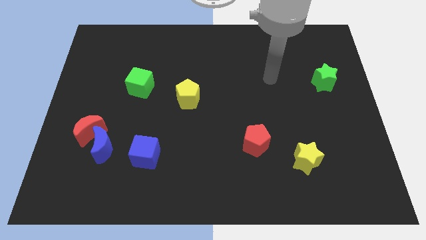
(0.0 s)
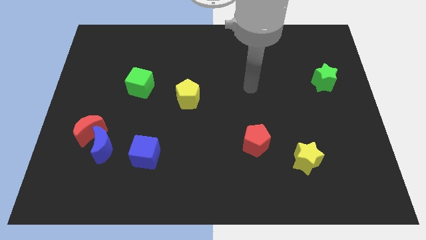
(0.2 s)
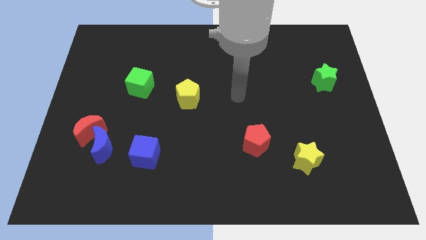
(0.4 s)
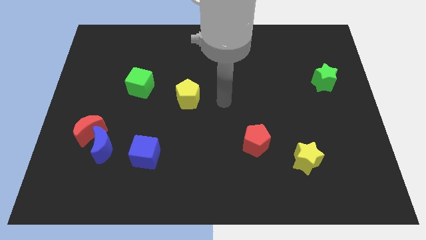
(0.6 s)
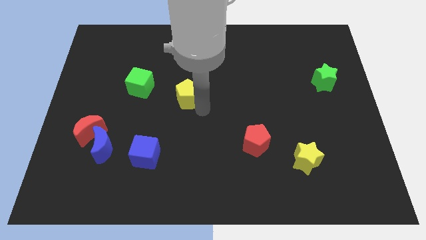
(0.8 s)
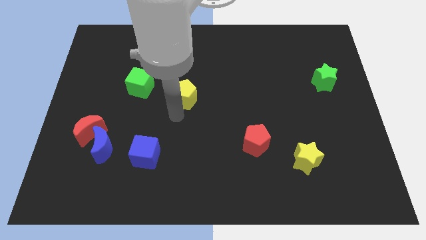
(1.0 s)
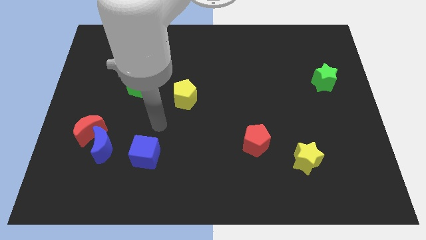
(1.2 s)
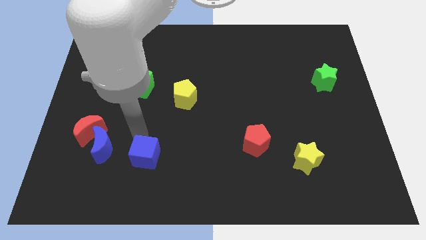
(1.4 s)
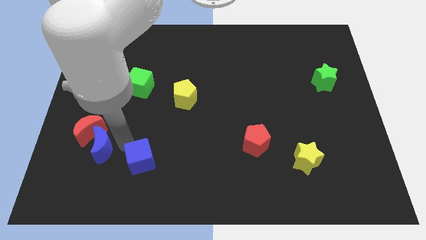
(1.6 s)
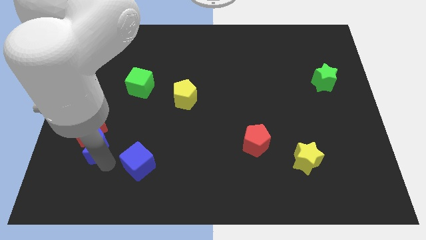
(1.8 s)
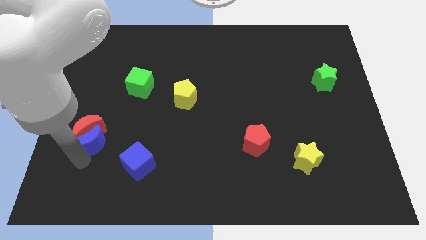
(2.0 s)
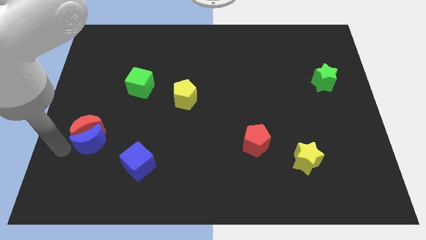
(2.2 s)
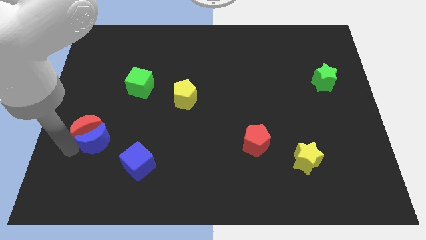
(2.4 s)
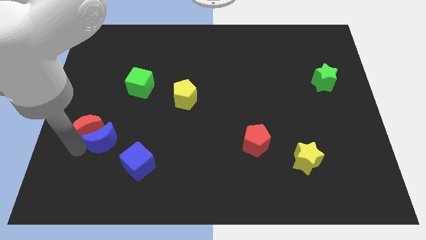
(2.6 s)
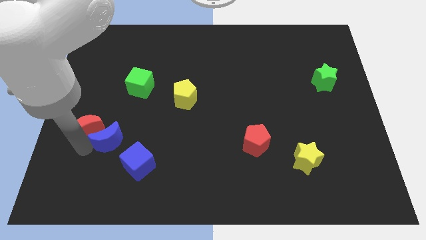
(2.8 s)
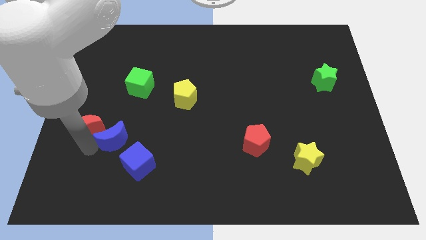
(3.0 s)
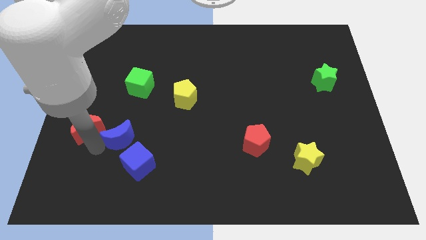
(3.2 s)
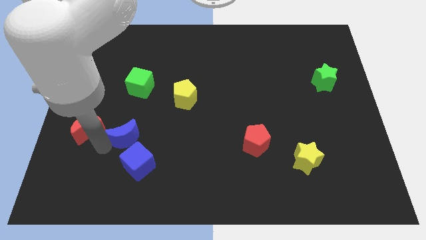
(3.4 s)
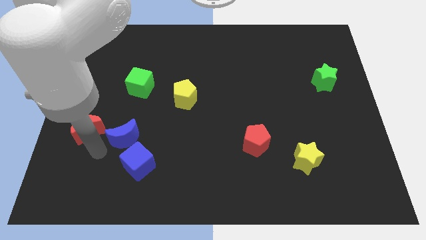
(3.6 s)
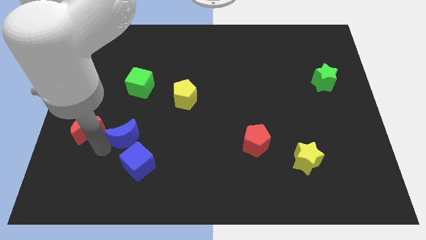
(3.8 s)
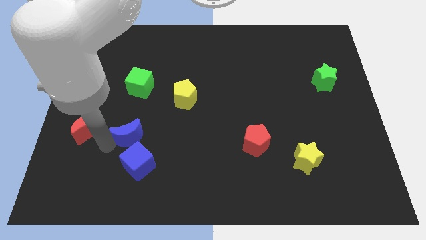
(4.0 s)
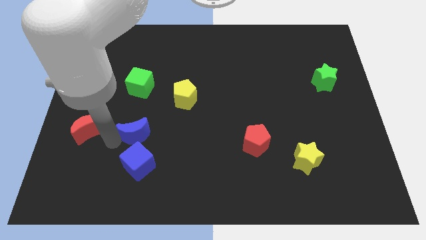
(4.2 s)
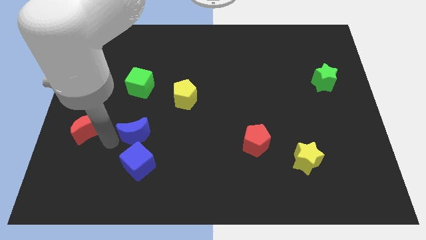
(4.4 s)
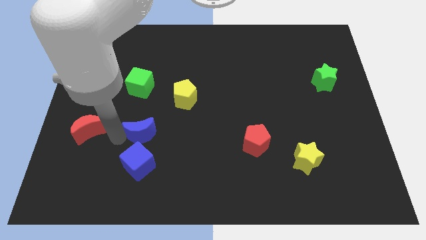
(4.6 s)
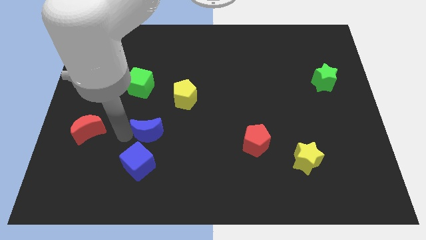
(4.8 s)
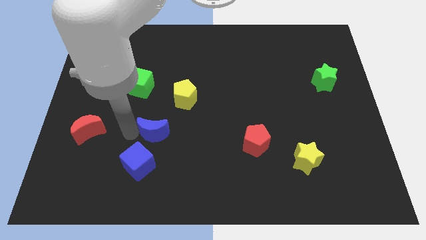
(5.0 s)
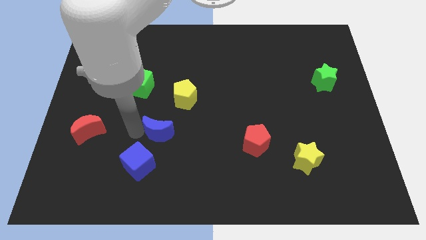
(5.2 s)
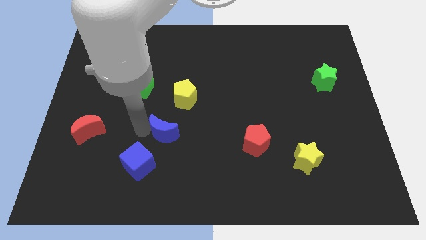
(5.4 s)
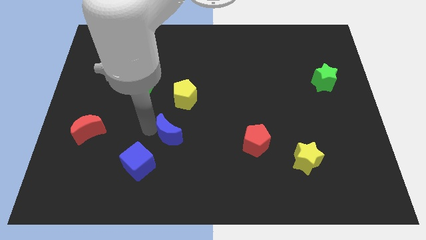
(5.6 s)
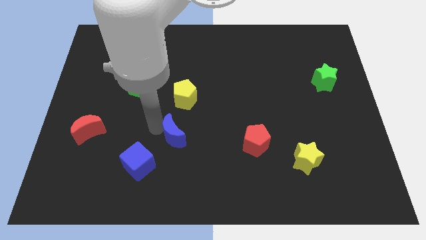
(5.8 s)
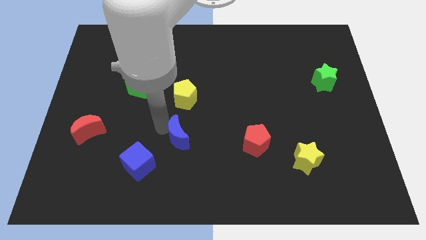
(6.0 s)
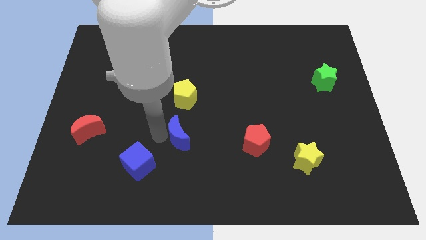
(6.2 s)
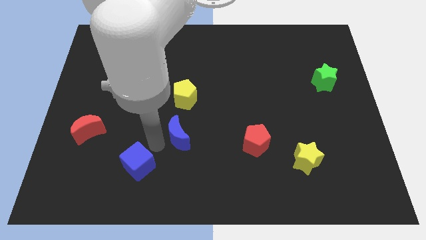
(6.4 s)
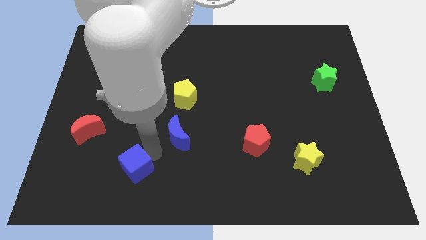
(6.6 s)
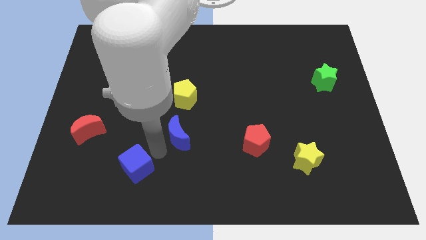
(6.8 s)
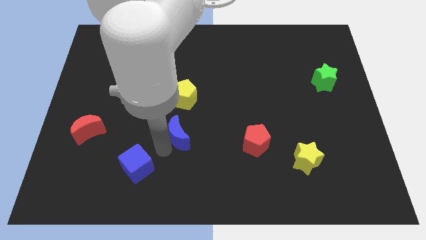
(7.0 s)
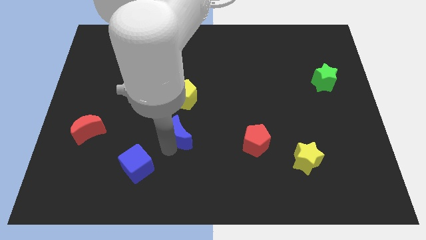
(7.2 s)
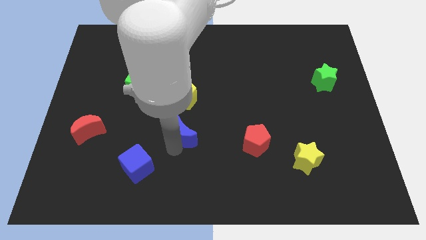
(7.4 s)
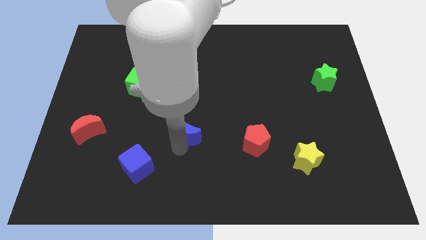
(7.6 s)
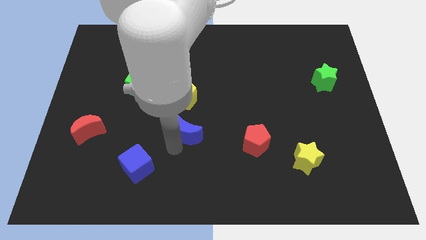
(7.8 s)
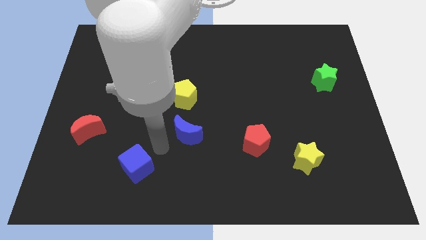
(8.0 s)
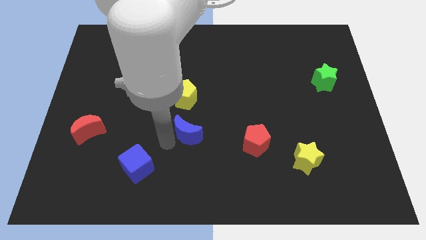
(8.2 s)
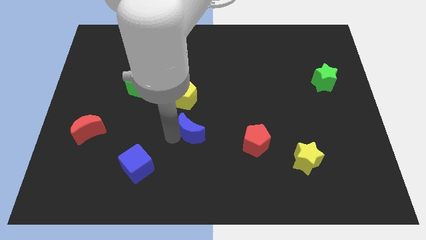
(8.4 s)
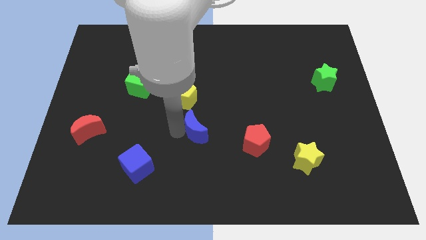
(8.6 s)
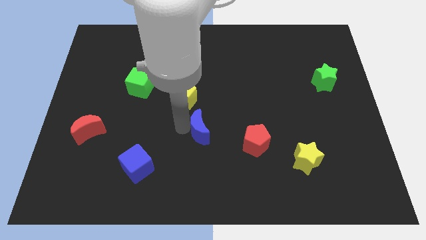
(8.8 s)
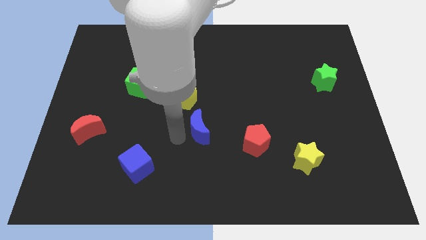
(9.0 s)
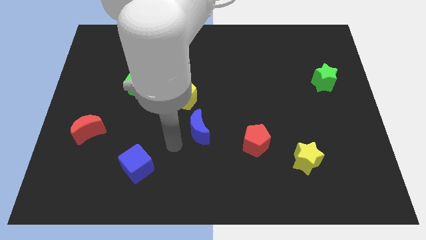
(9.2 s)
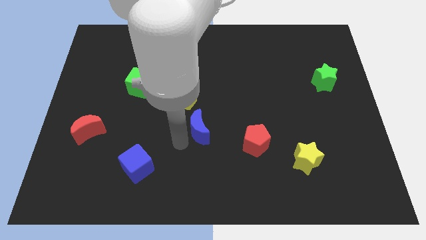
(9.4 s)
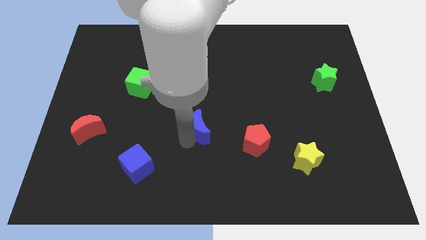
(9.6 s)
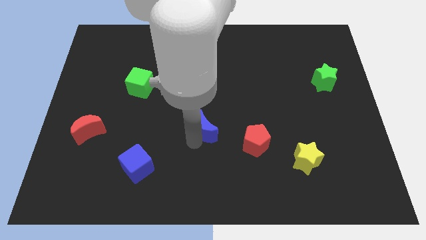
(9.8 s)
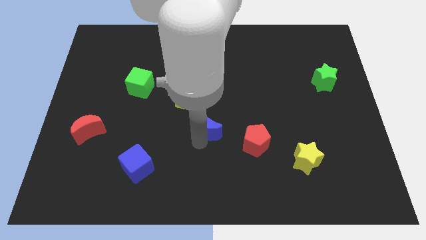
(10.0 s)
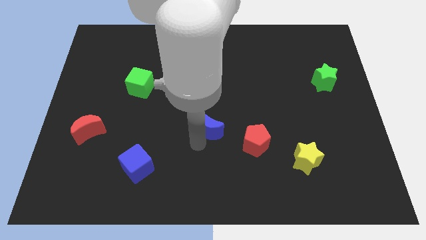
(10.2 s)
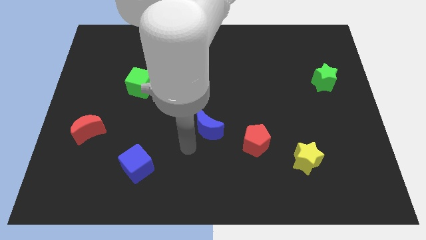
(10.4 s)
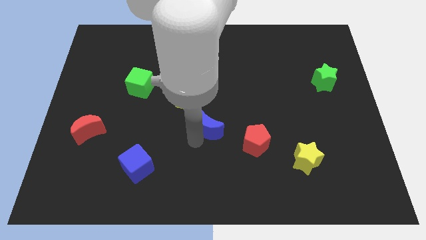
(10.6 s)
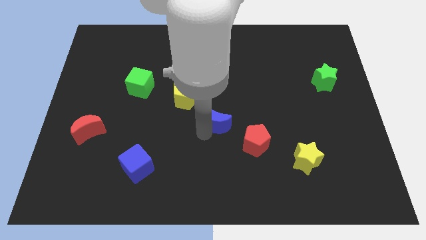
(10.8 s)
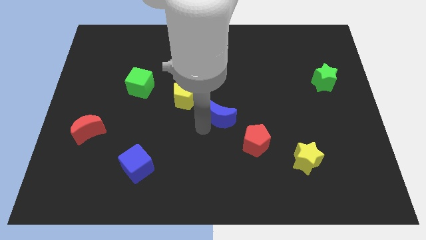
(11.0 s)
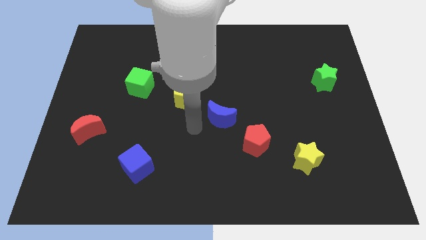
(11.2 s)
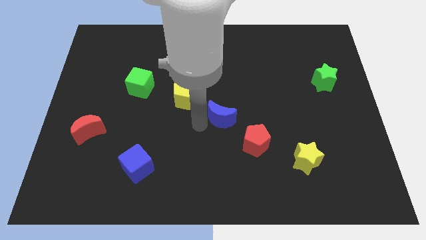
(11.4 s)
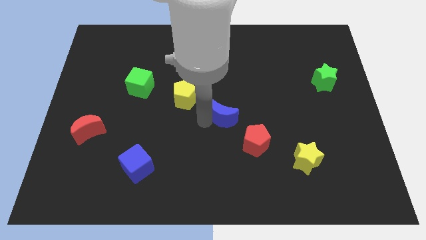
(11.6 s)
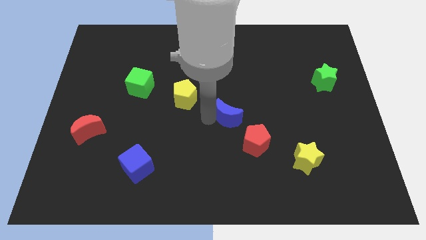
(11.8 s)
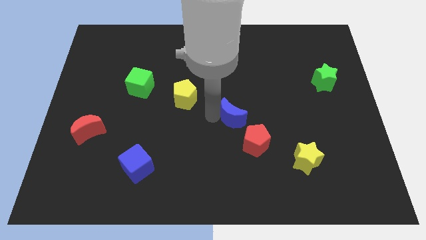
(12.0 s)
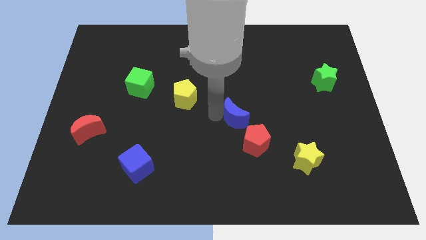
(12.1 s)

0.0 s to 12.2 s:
move the blue moon above the red pentagon

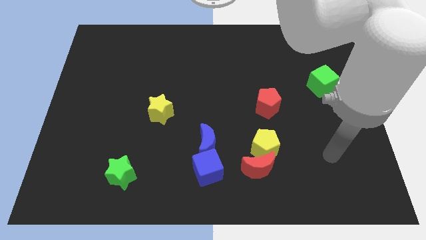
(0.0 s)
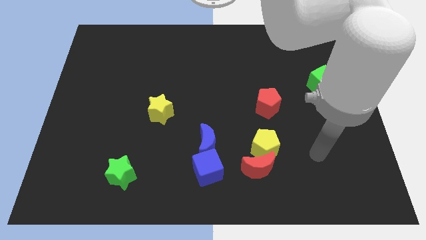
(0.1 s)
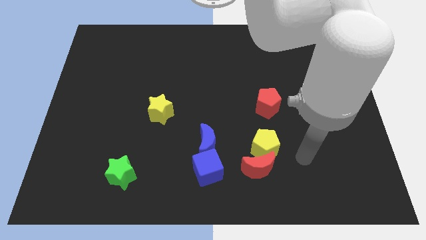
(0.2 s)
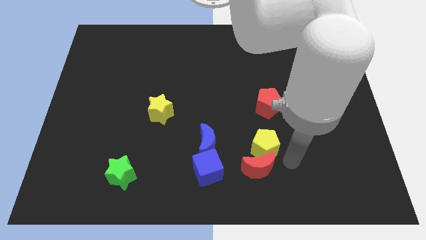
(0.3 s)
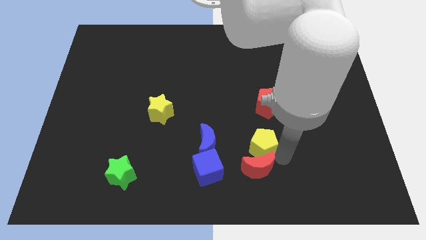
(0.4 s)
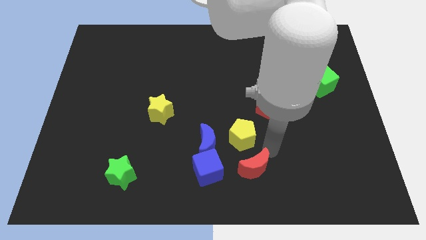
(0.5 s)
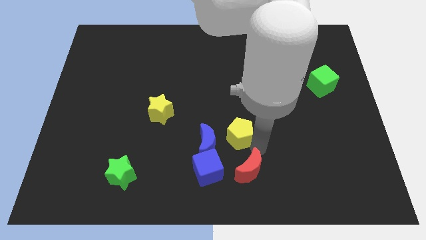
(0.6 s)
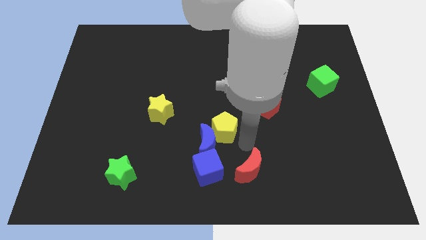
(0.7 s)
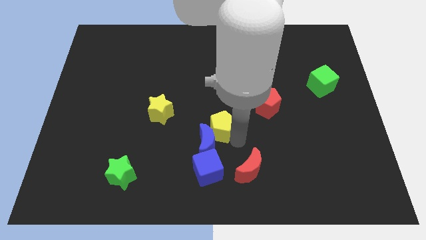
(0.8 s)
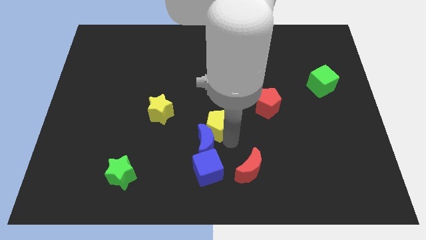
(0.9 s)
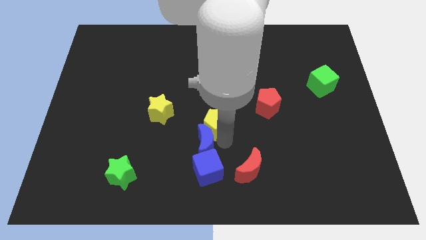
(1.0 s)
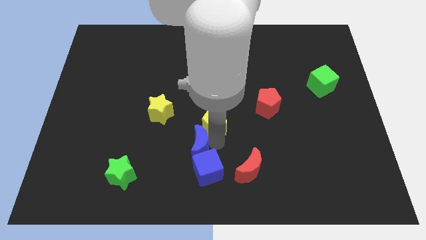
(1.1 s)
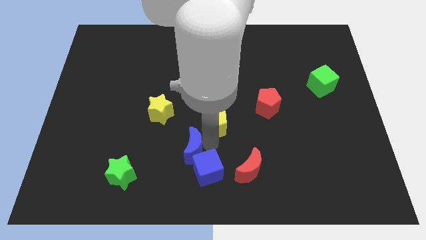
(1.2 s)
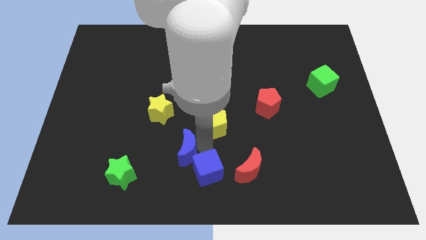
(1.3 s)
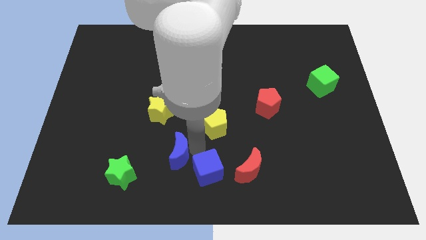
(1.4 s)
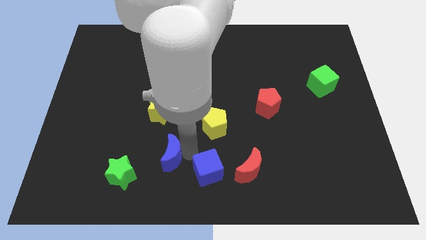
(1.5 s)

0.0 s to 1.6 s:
slide the blue moon to the bottom of the yellow star
